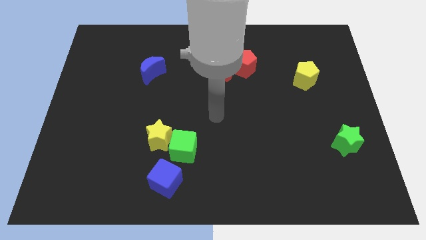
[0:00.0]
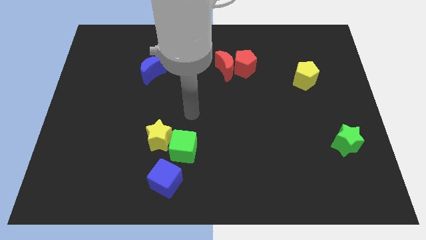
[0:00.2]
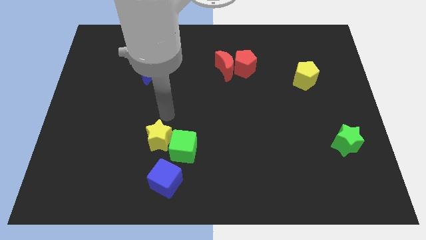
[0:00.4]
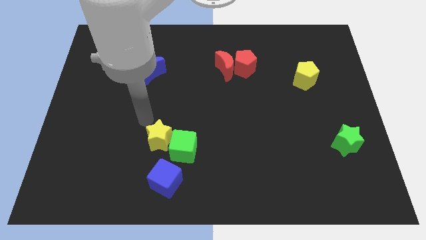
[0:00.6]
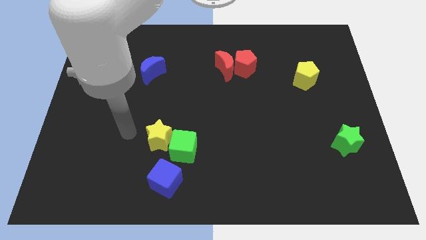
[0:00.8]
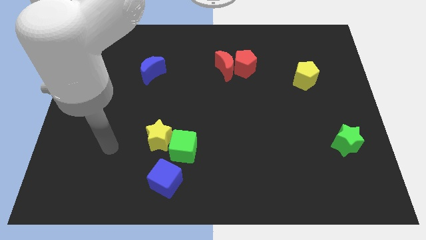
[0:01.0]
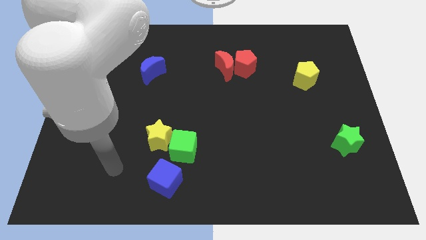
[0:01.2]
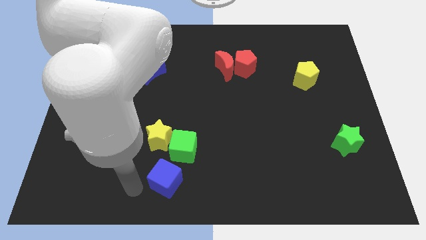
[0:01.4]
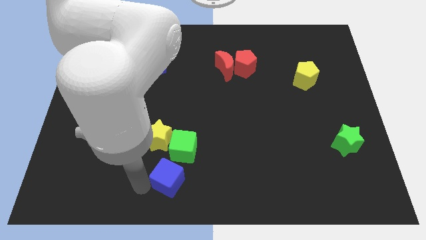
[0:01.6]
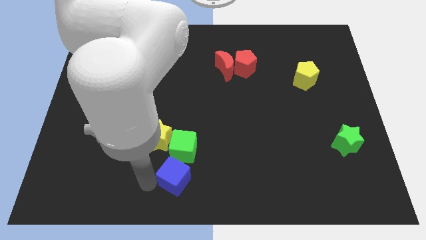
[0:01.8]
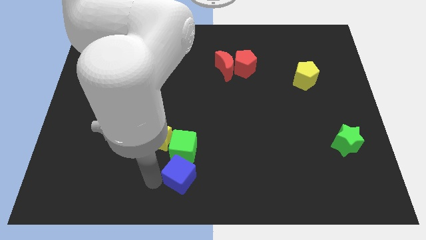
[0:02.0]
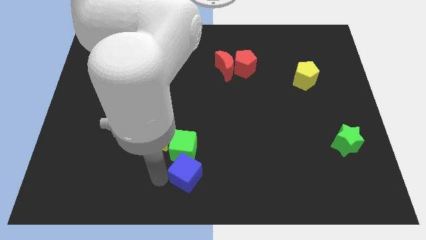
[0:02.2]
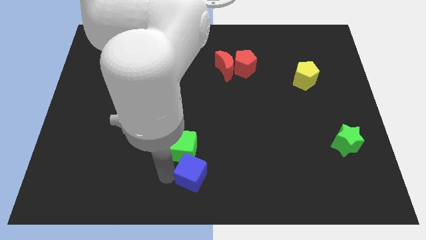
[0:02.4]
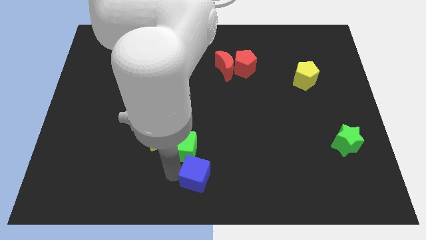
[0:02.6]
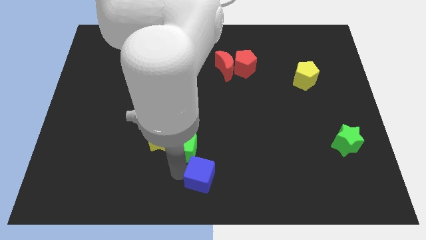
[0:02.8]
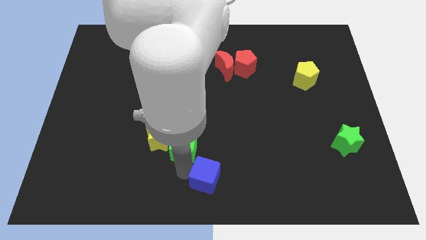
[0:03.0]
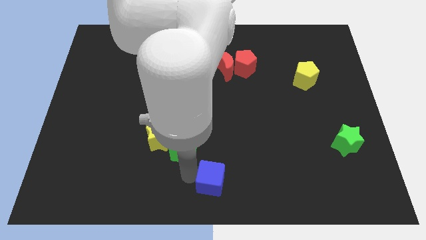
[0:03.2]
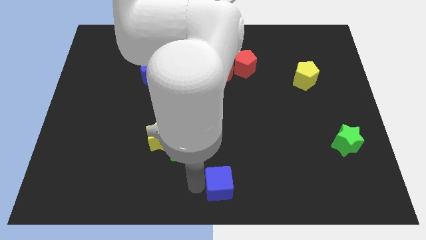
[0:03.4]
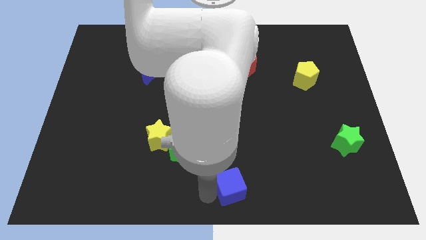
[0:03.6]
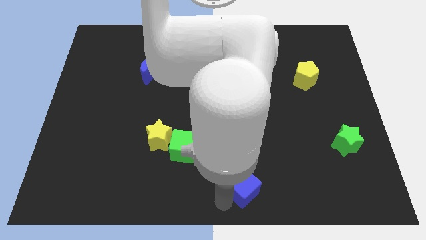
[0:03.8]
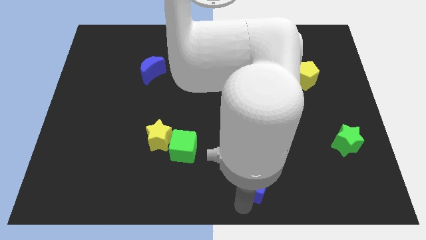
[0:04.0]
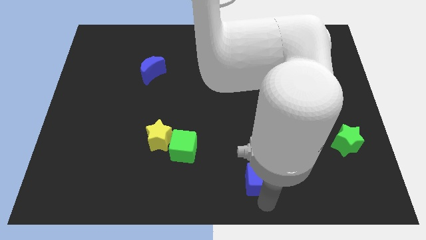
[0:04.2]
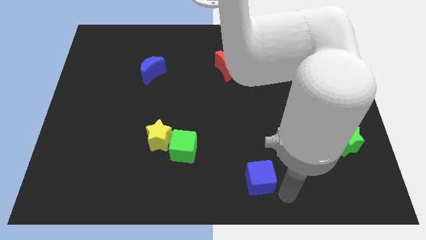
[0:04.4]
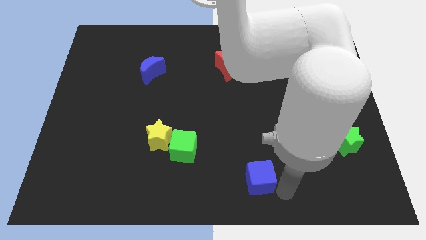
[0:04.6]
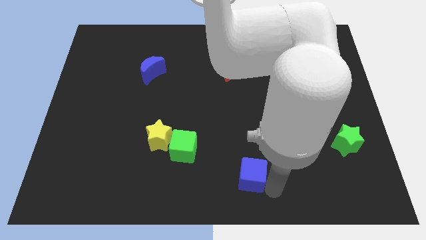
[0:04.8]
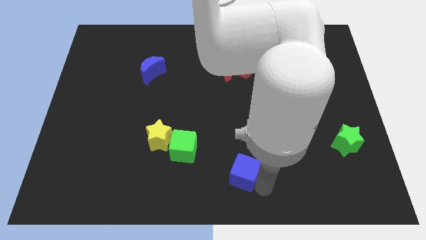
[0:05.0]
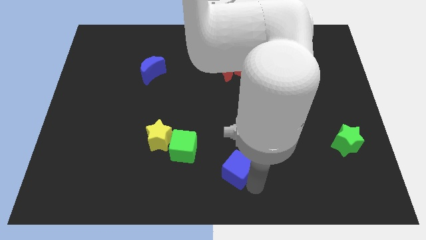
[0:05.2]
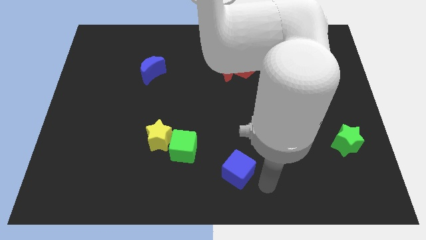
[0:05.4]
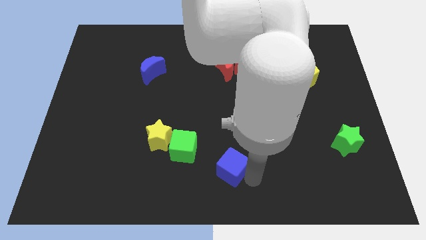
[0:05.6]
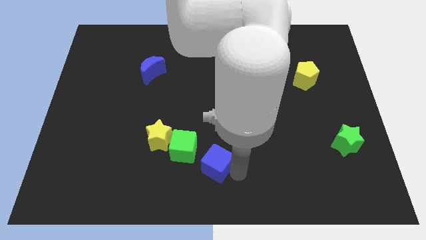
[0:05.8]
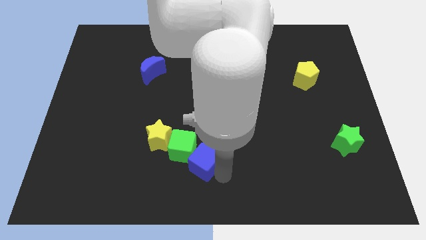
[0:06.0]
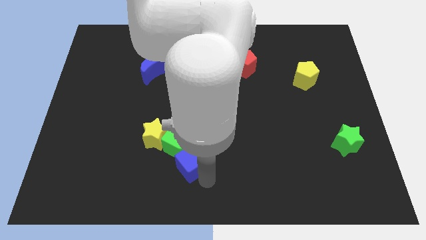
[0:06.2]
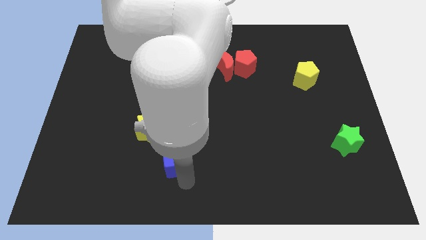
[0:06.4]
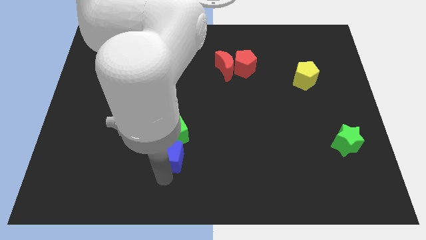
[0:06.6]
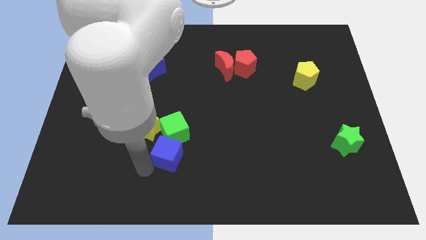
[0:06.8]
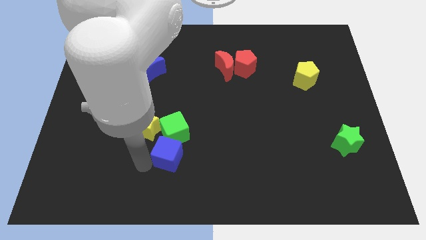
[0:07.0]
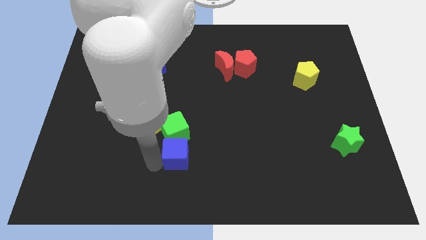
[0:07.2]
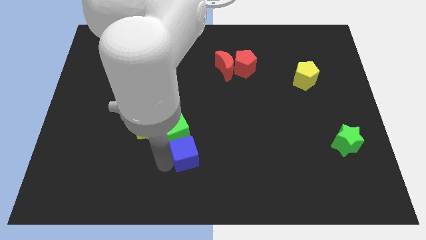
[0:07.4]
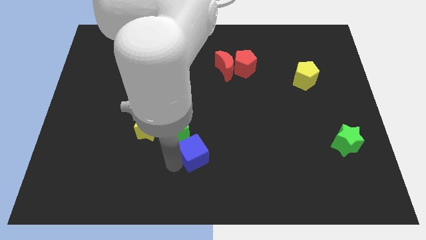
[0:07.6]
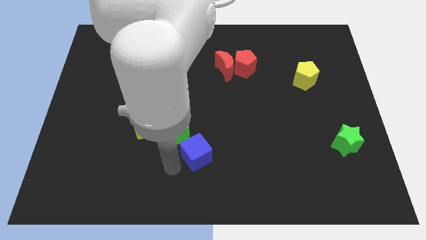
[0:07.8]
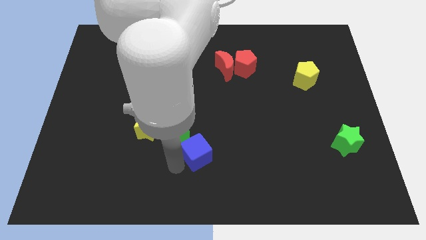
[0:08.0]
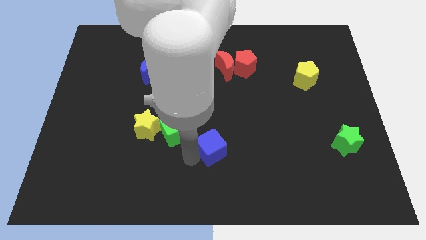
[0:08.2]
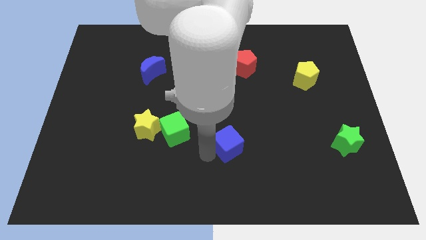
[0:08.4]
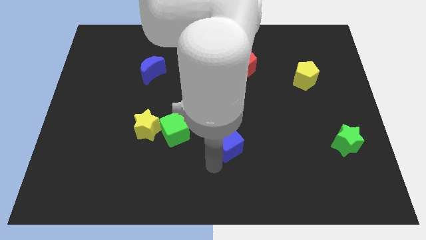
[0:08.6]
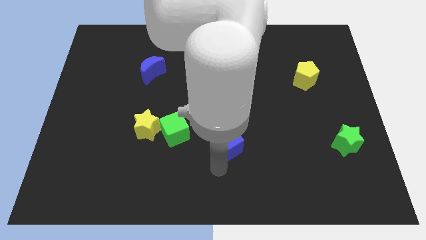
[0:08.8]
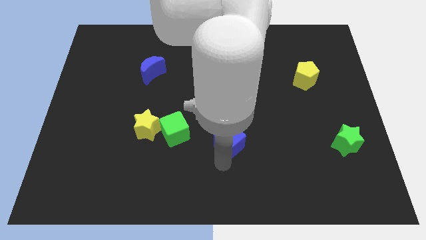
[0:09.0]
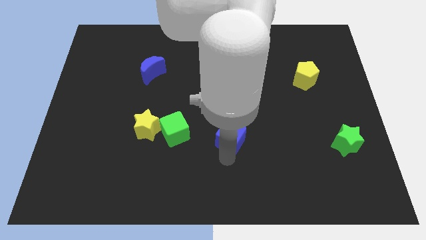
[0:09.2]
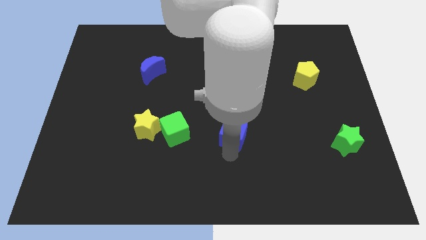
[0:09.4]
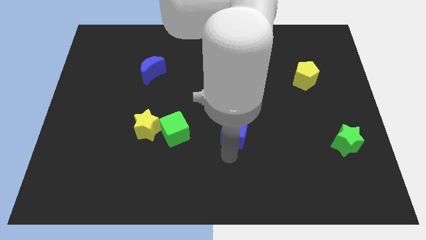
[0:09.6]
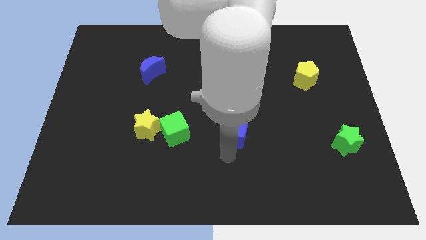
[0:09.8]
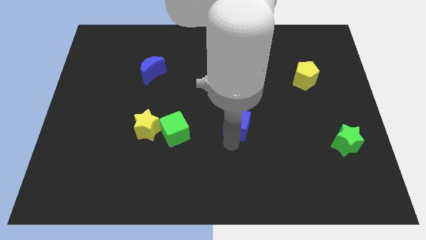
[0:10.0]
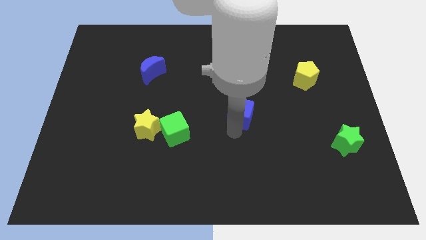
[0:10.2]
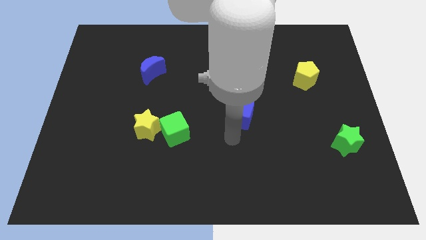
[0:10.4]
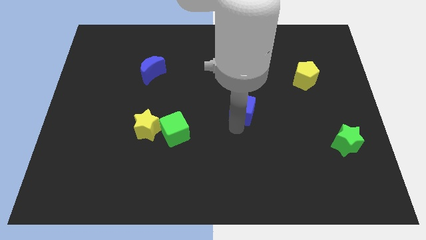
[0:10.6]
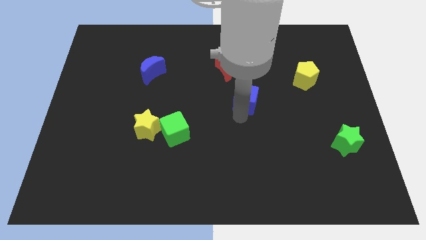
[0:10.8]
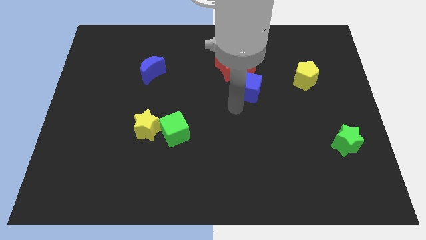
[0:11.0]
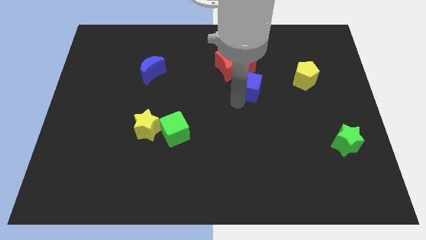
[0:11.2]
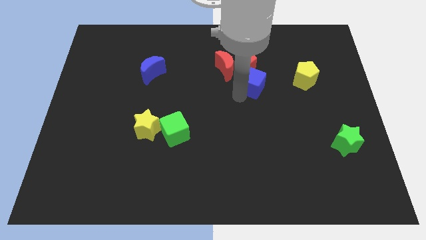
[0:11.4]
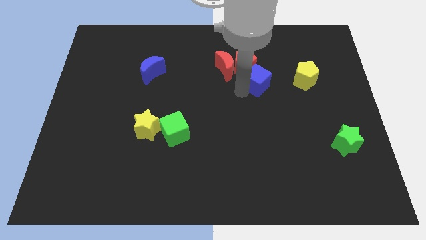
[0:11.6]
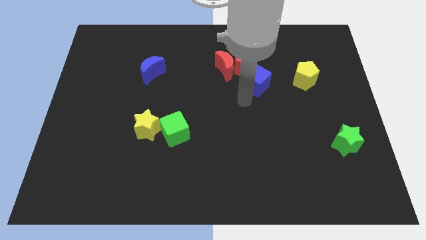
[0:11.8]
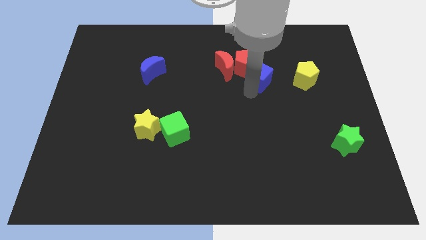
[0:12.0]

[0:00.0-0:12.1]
put the blue cube to the right side of the red moon

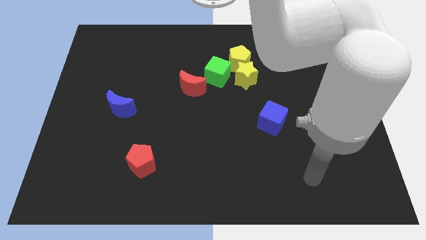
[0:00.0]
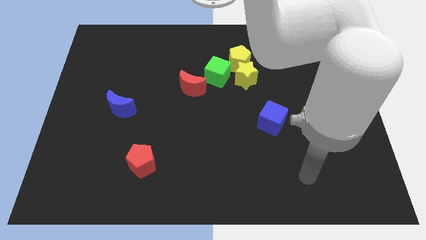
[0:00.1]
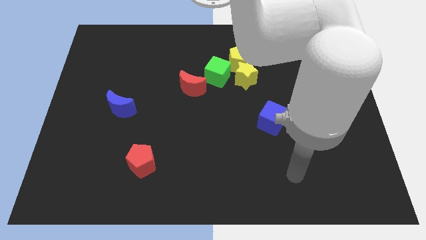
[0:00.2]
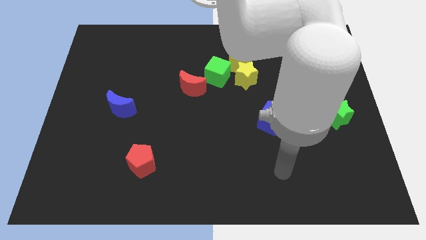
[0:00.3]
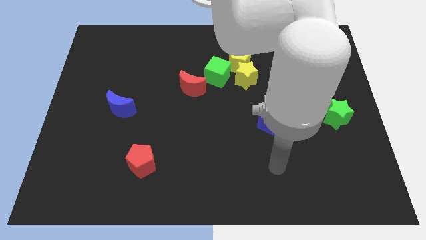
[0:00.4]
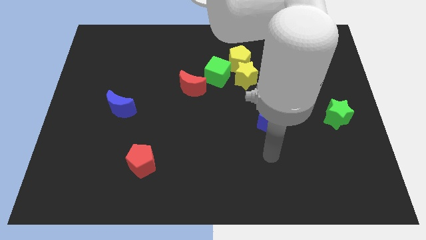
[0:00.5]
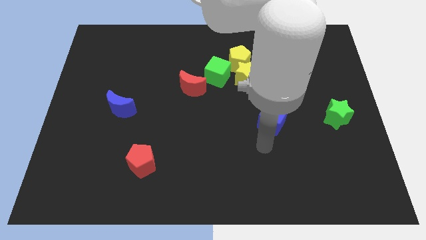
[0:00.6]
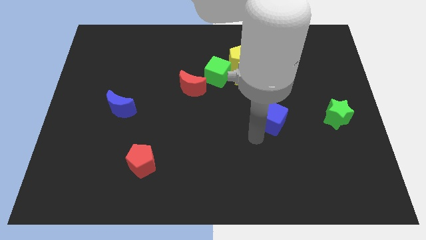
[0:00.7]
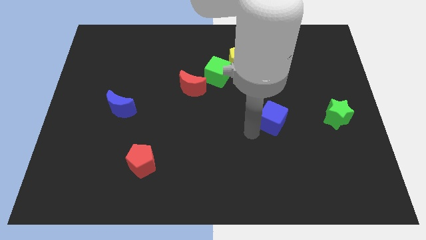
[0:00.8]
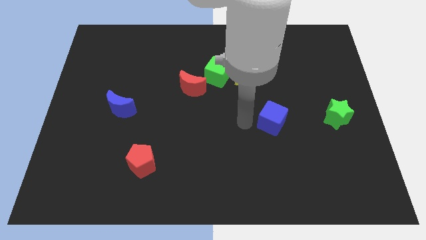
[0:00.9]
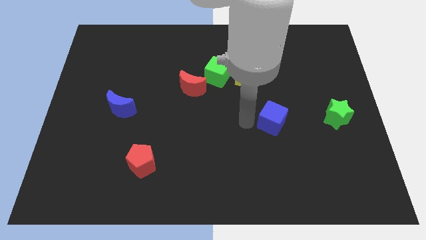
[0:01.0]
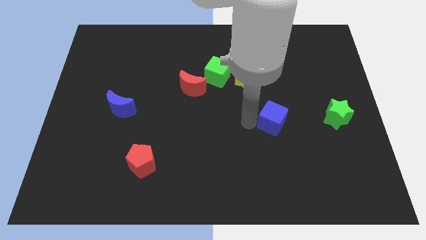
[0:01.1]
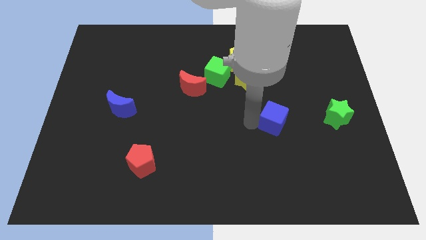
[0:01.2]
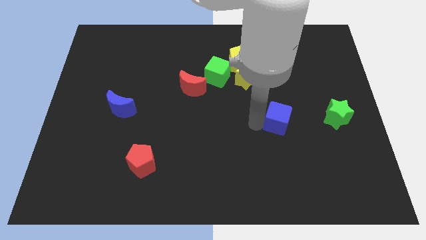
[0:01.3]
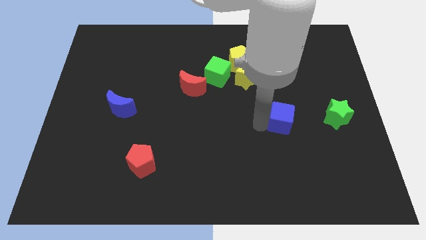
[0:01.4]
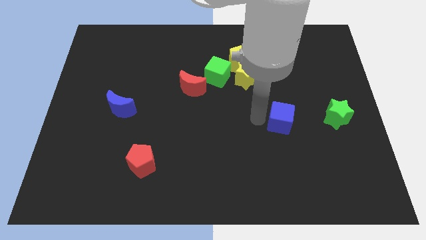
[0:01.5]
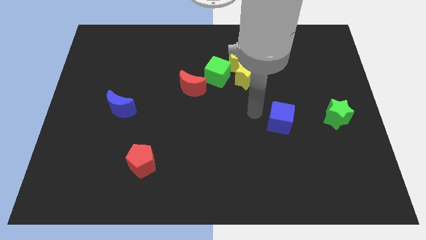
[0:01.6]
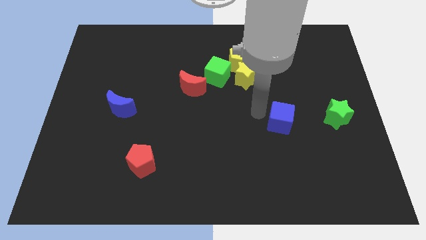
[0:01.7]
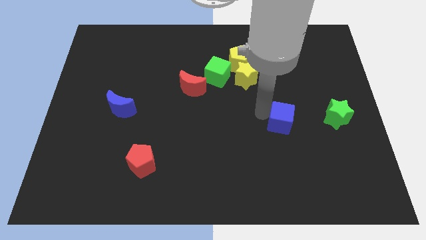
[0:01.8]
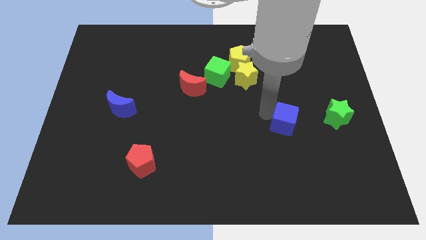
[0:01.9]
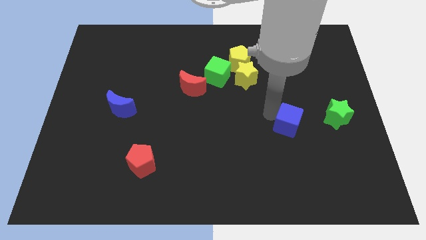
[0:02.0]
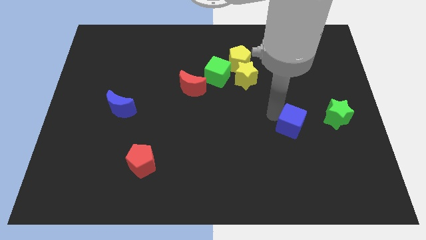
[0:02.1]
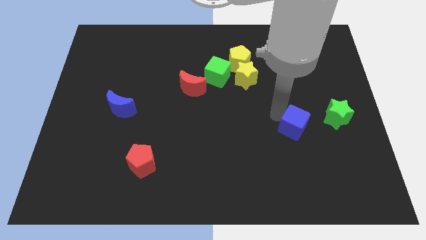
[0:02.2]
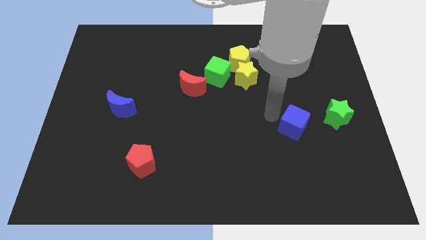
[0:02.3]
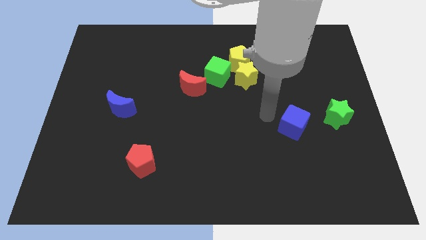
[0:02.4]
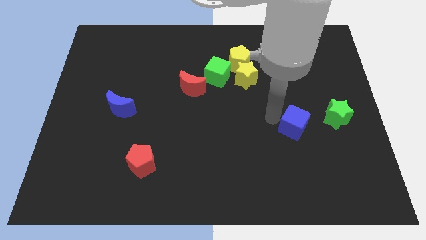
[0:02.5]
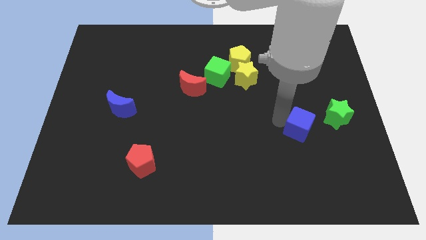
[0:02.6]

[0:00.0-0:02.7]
push the blue cube to the bottom left side of the green star
